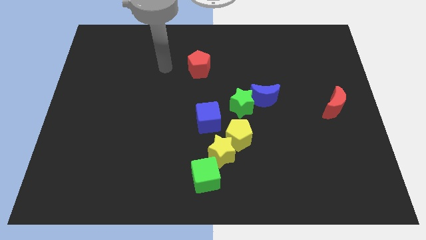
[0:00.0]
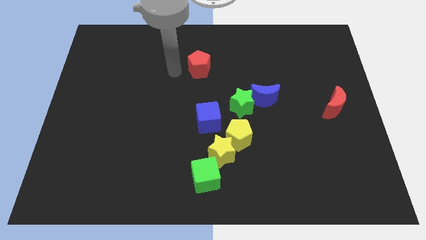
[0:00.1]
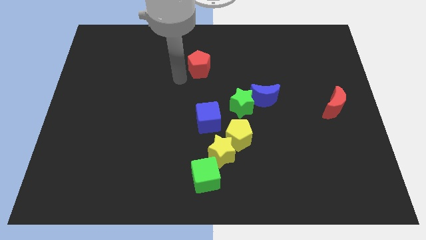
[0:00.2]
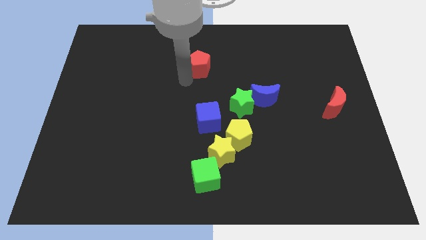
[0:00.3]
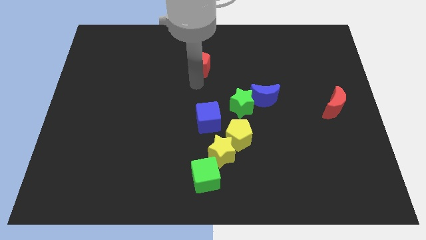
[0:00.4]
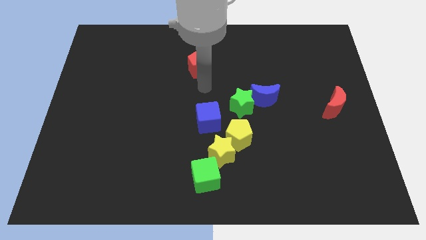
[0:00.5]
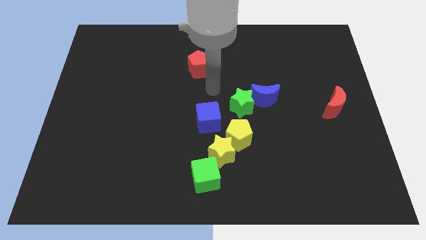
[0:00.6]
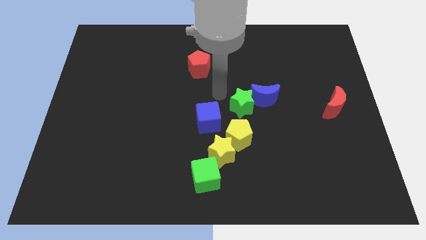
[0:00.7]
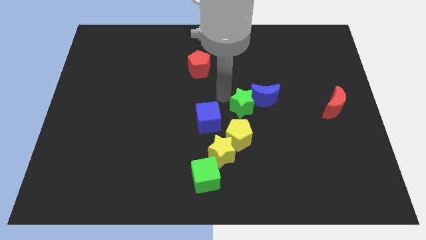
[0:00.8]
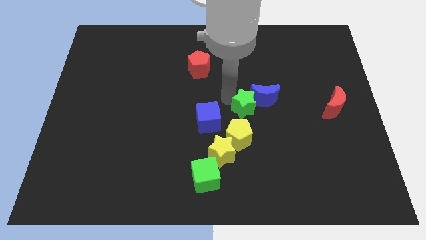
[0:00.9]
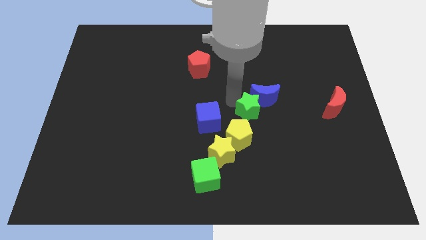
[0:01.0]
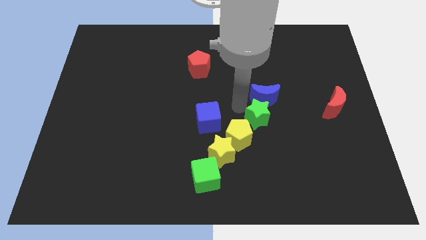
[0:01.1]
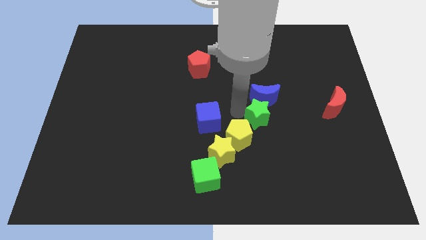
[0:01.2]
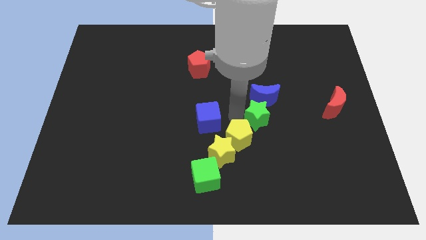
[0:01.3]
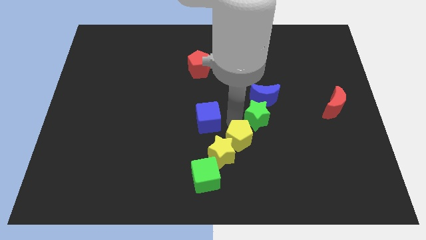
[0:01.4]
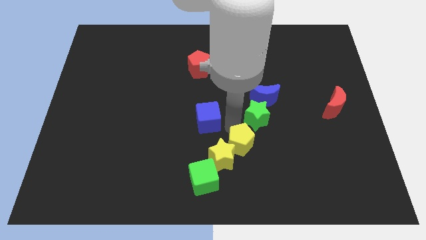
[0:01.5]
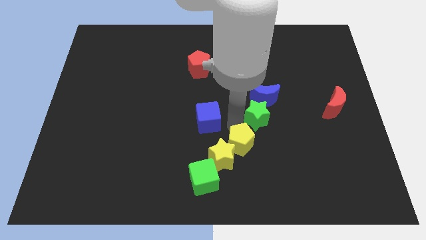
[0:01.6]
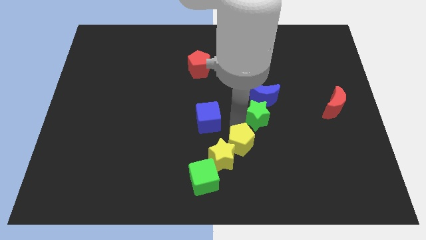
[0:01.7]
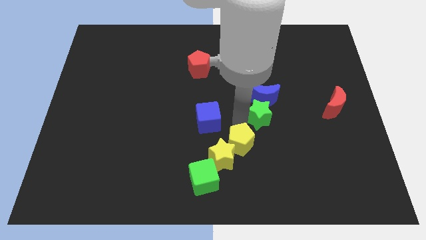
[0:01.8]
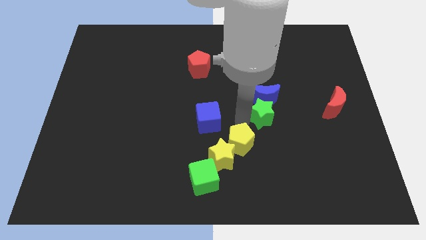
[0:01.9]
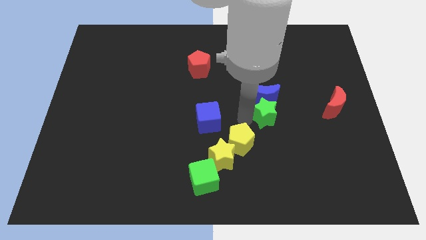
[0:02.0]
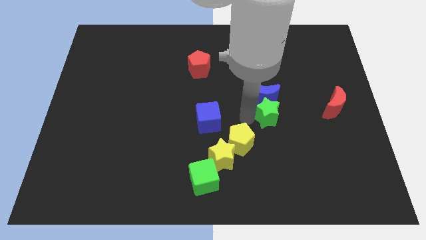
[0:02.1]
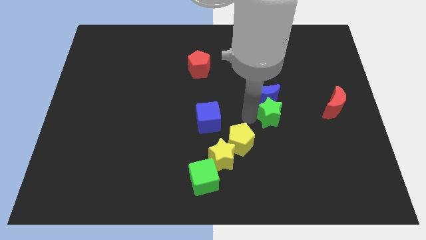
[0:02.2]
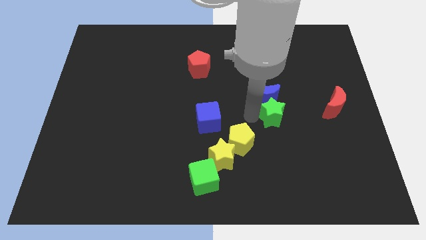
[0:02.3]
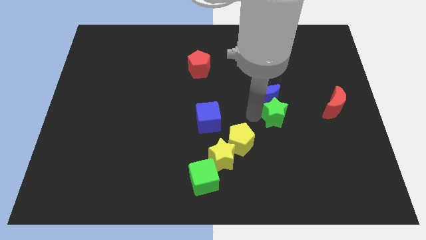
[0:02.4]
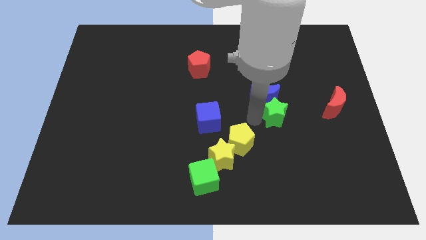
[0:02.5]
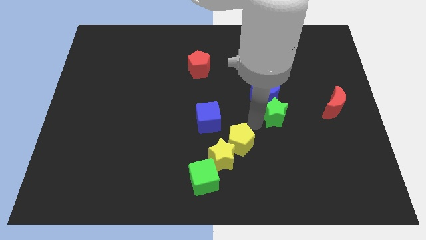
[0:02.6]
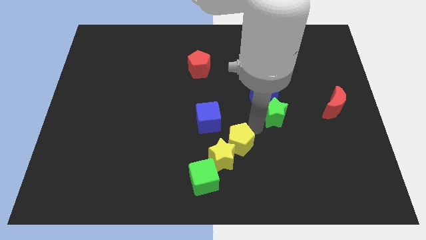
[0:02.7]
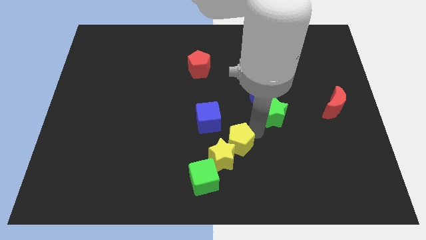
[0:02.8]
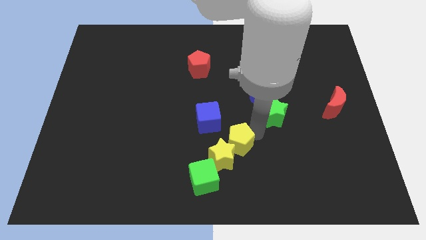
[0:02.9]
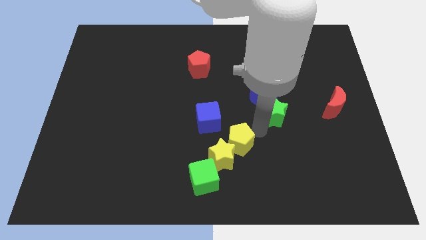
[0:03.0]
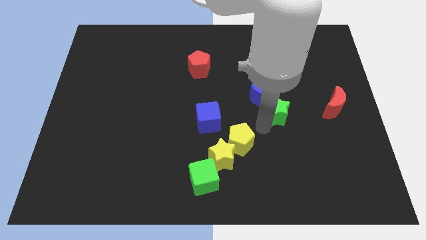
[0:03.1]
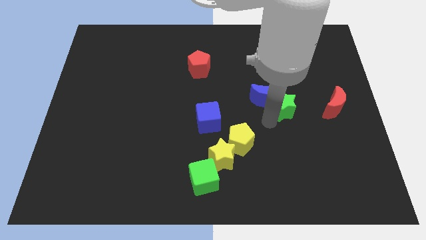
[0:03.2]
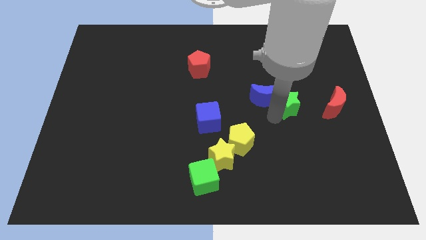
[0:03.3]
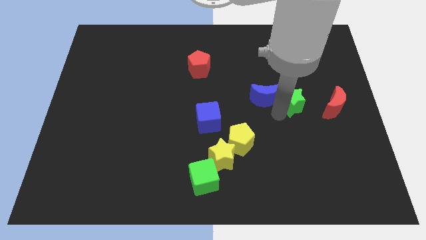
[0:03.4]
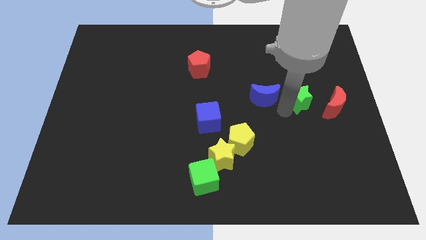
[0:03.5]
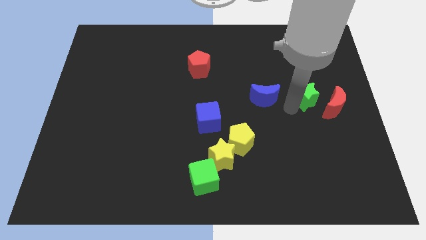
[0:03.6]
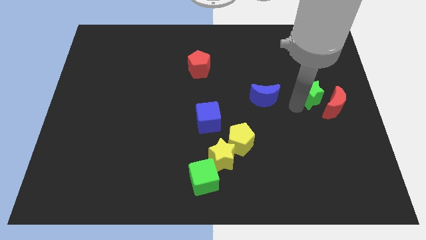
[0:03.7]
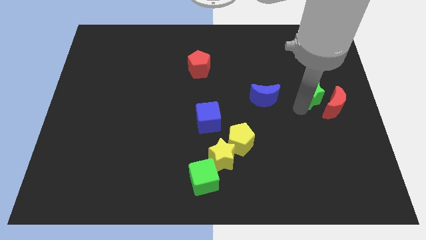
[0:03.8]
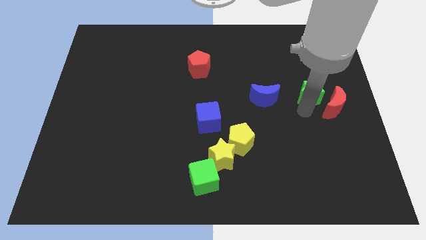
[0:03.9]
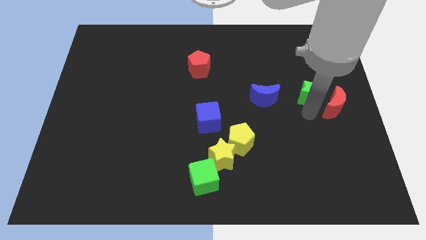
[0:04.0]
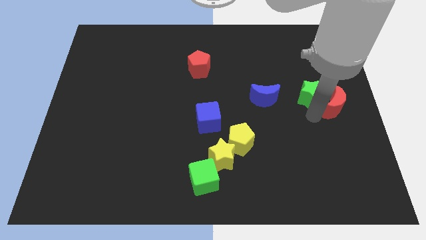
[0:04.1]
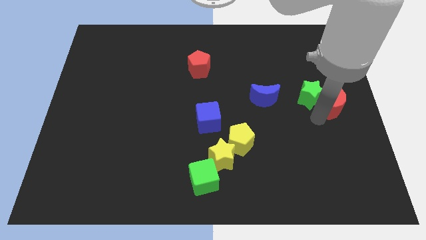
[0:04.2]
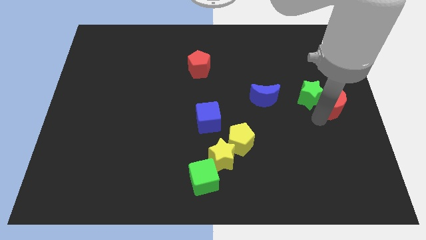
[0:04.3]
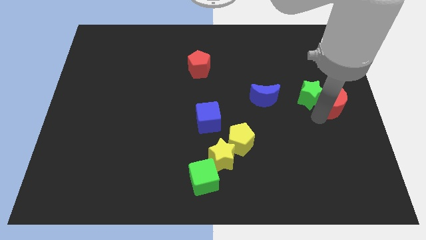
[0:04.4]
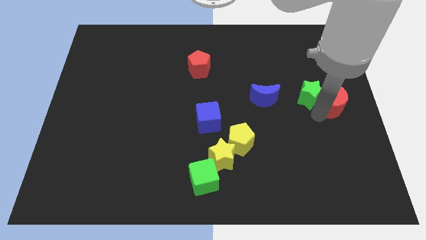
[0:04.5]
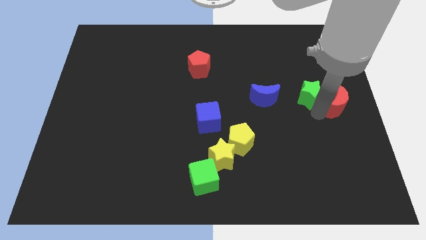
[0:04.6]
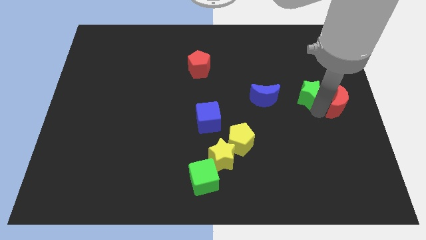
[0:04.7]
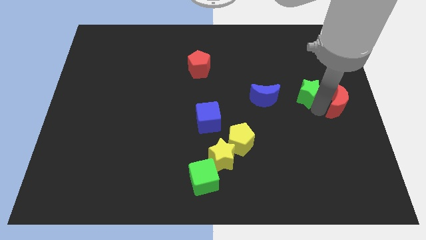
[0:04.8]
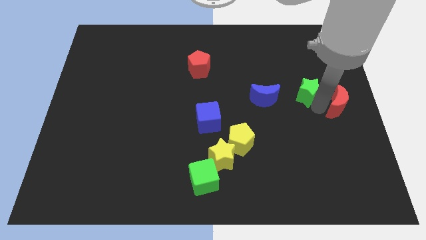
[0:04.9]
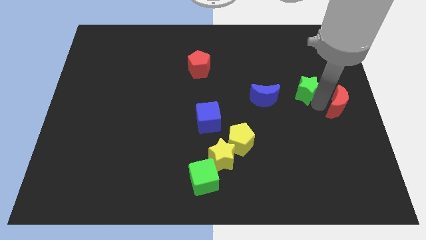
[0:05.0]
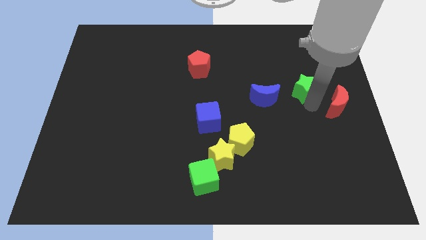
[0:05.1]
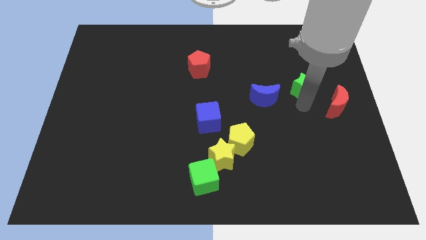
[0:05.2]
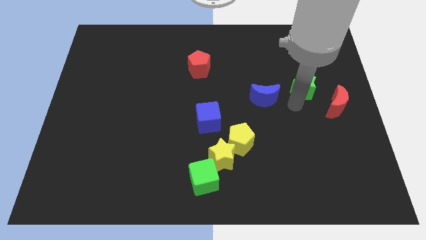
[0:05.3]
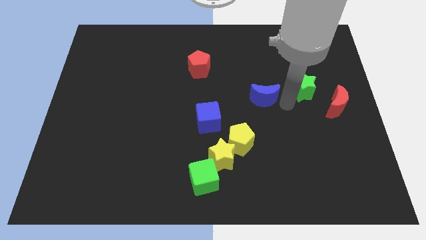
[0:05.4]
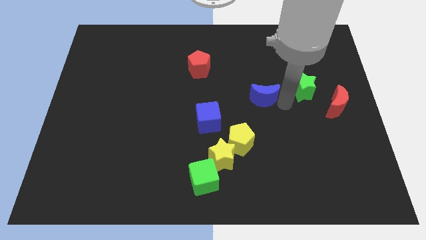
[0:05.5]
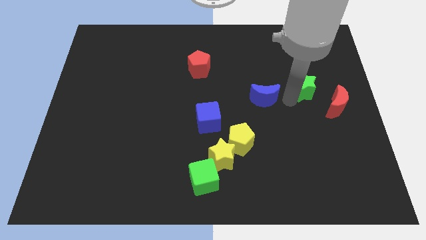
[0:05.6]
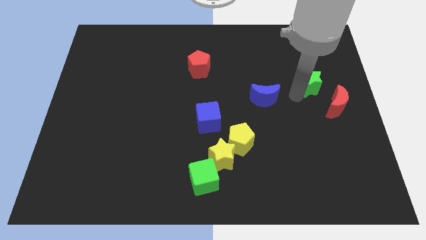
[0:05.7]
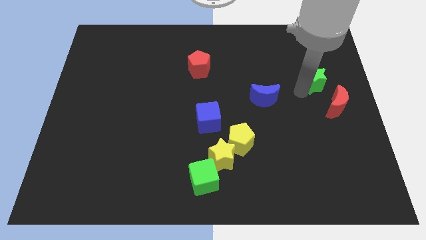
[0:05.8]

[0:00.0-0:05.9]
push the green star to the top side of the red moon

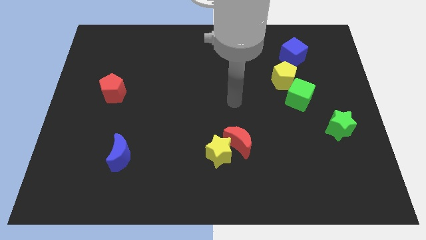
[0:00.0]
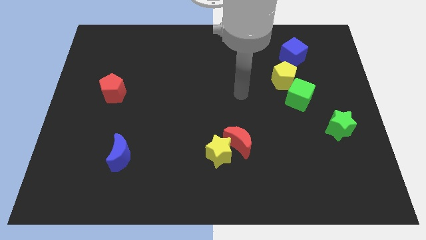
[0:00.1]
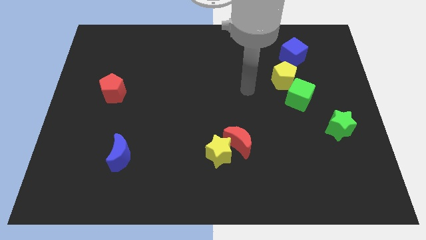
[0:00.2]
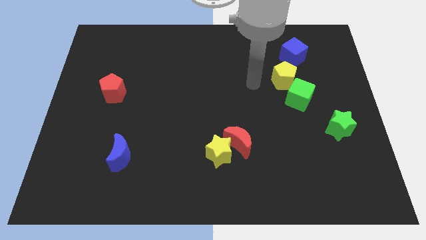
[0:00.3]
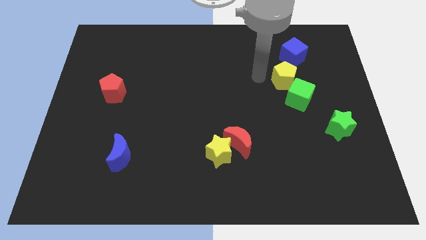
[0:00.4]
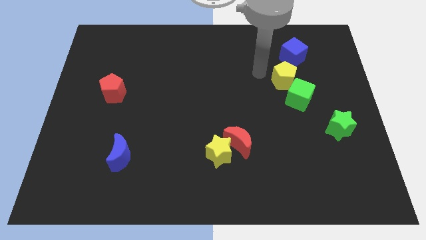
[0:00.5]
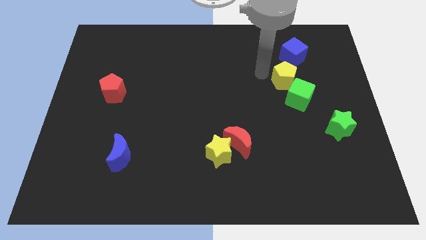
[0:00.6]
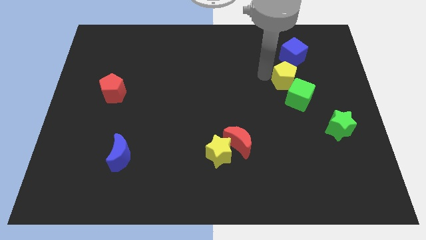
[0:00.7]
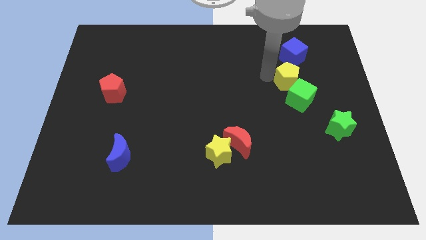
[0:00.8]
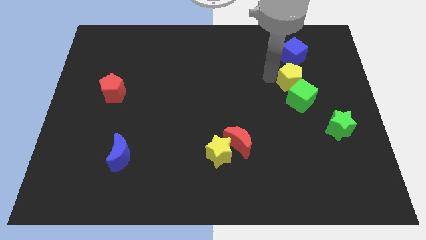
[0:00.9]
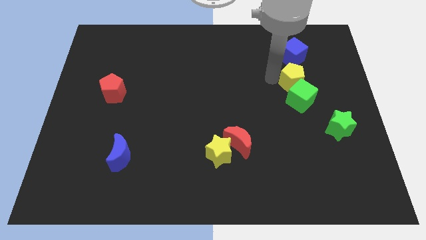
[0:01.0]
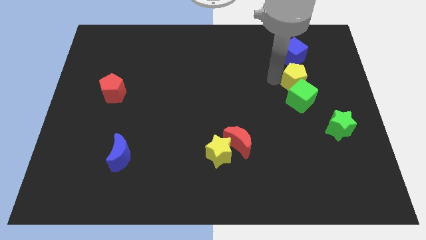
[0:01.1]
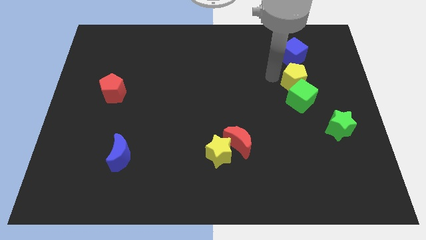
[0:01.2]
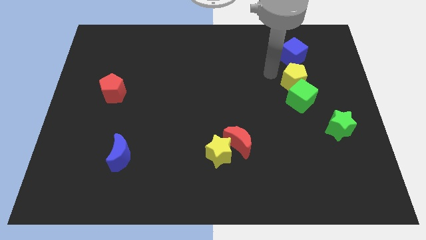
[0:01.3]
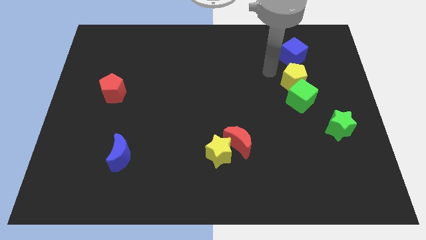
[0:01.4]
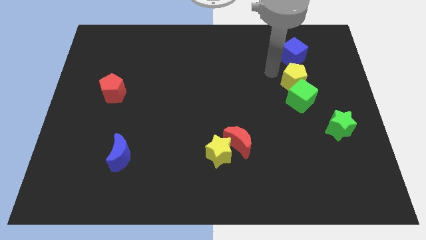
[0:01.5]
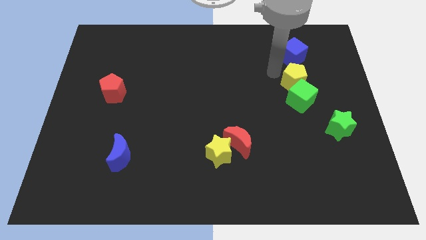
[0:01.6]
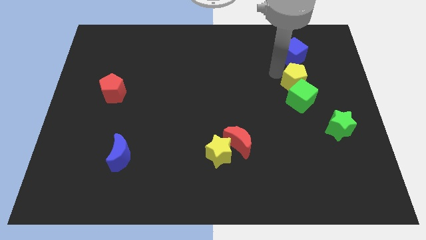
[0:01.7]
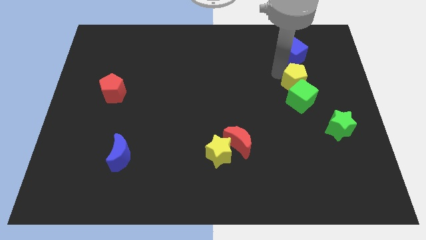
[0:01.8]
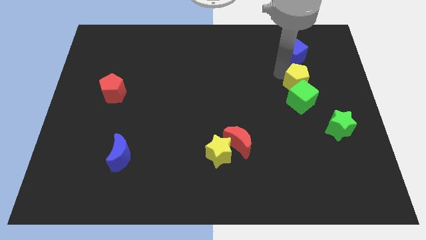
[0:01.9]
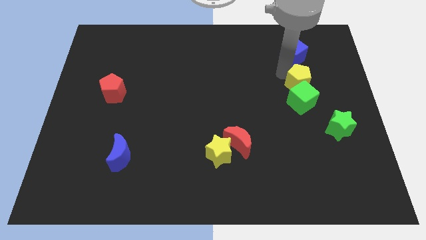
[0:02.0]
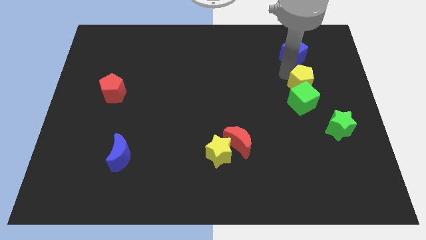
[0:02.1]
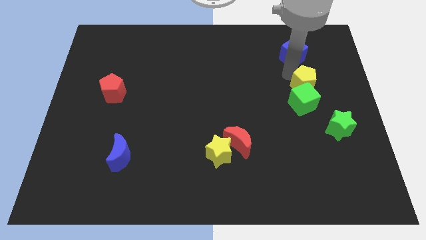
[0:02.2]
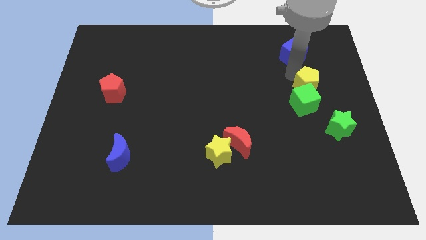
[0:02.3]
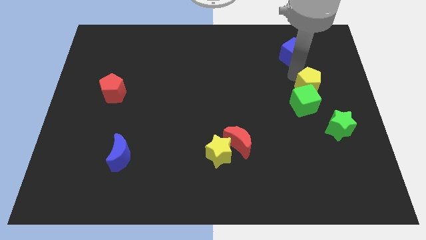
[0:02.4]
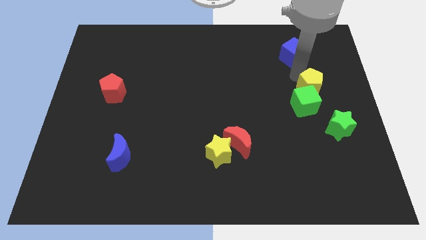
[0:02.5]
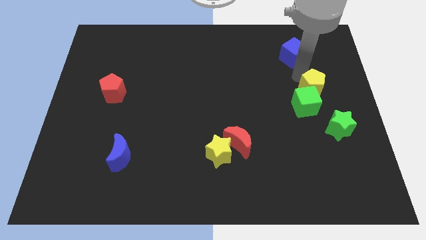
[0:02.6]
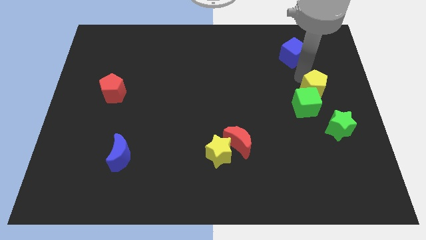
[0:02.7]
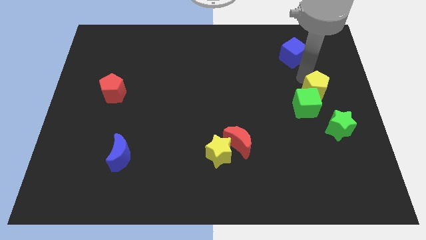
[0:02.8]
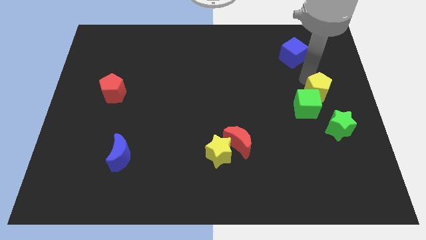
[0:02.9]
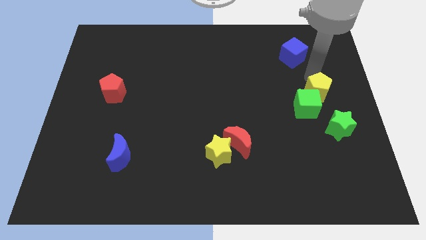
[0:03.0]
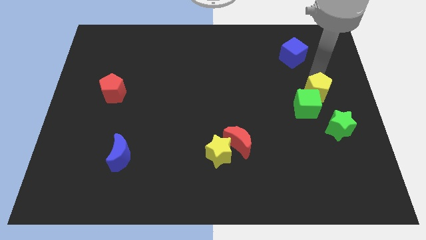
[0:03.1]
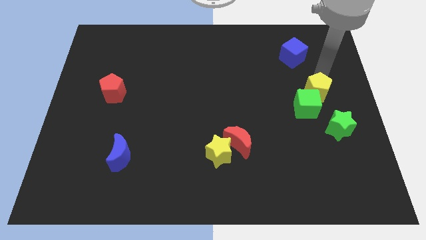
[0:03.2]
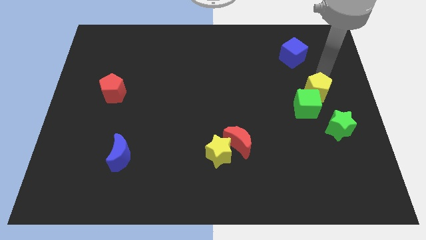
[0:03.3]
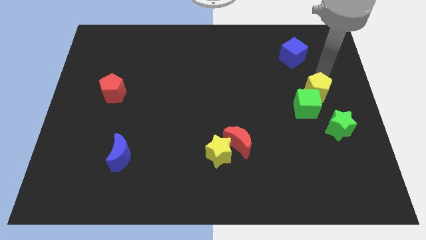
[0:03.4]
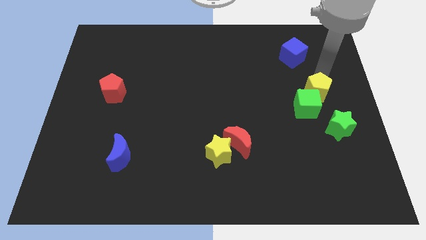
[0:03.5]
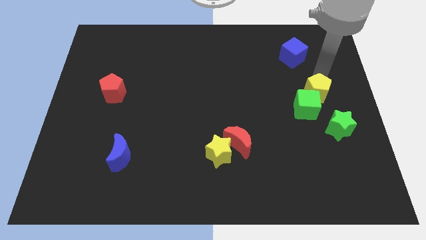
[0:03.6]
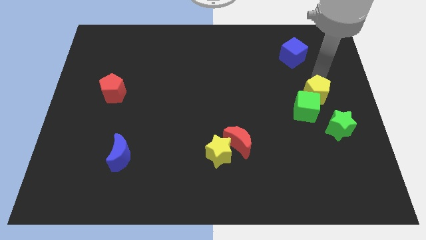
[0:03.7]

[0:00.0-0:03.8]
slide the yellow pentagon diagonally up and to the left of the green star
